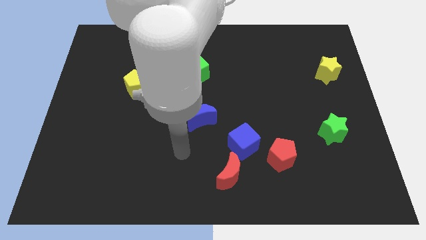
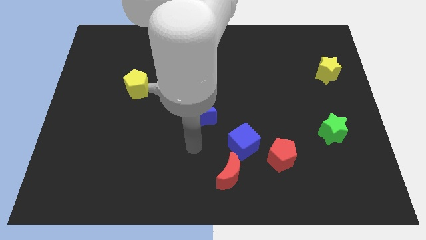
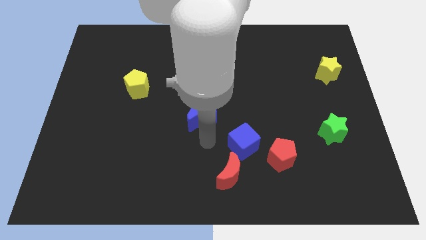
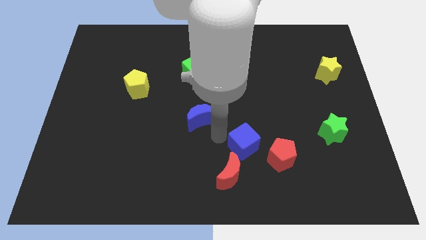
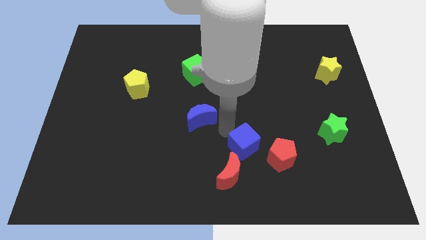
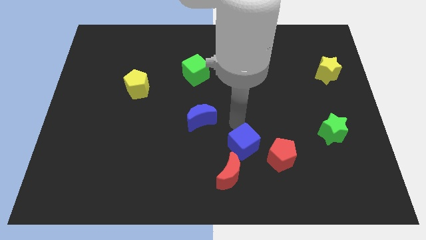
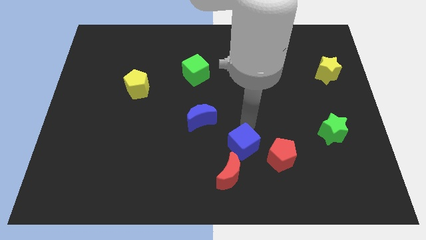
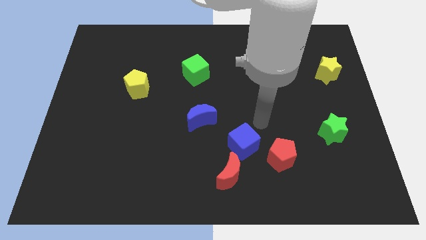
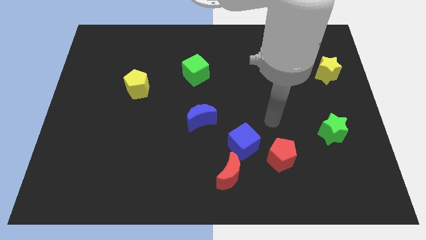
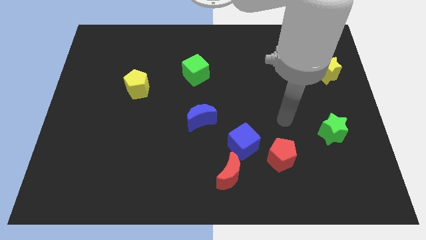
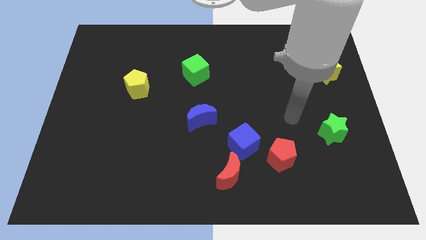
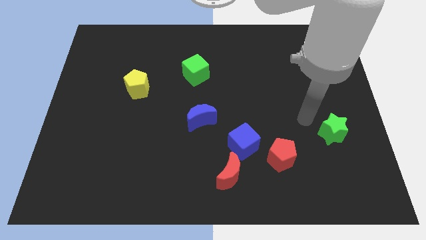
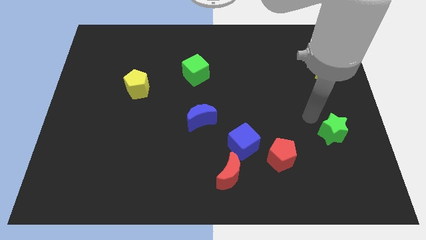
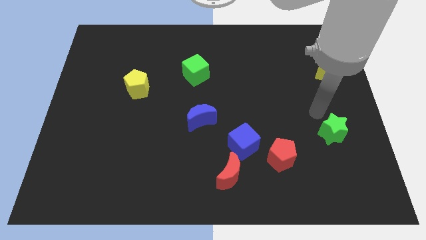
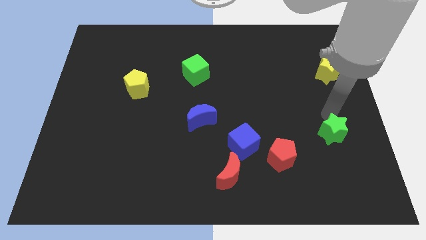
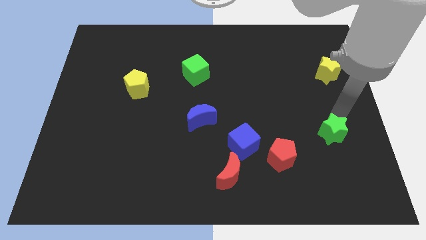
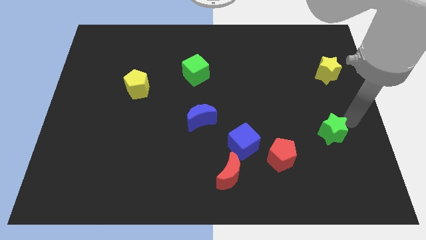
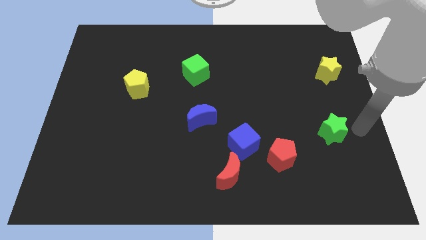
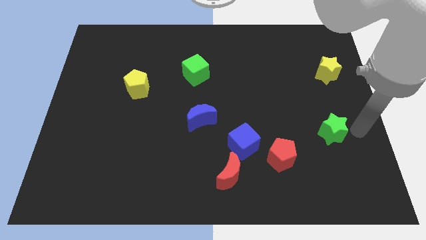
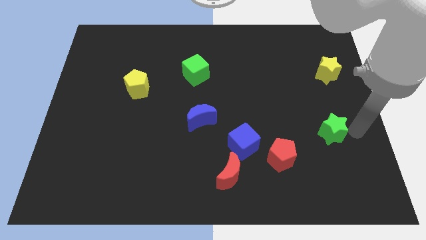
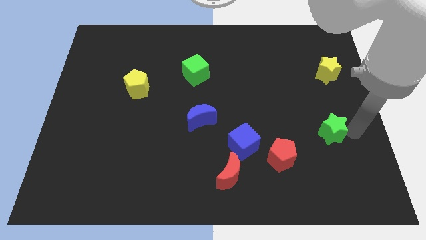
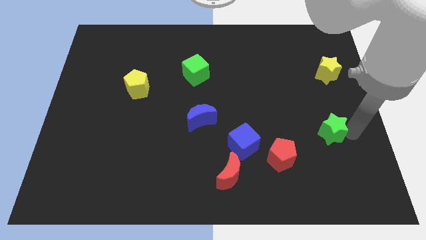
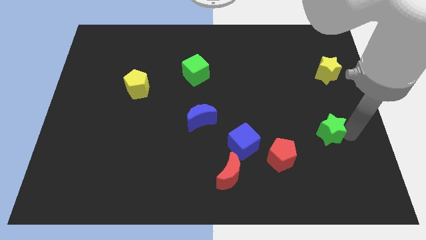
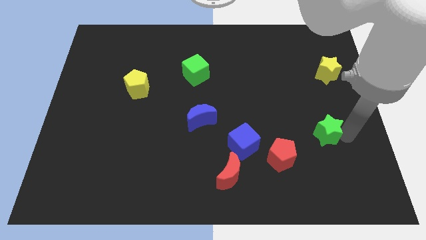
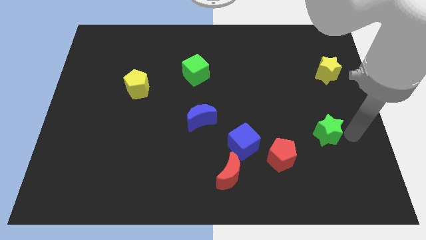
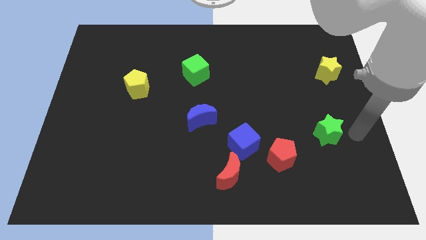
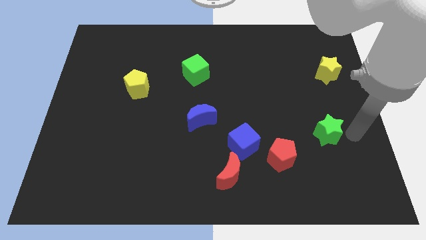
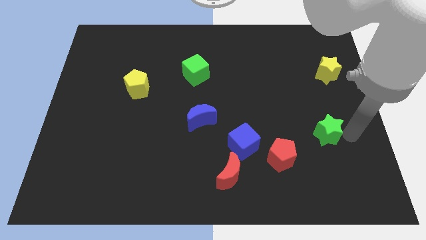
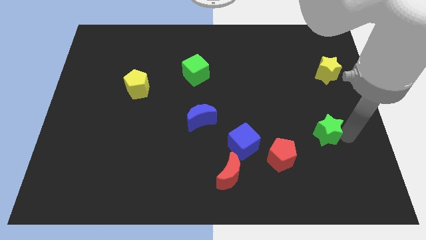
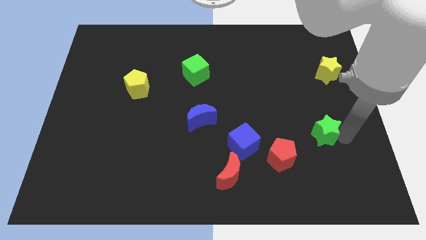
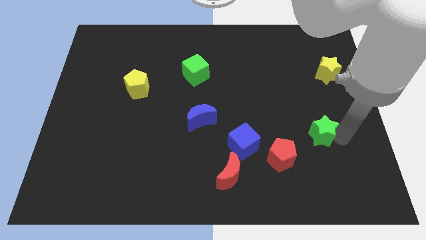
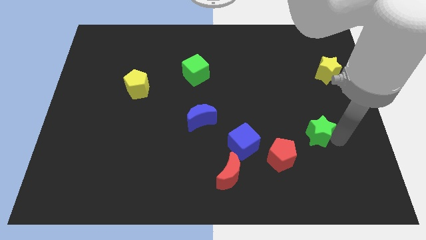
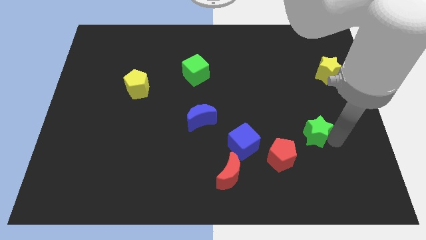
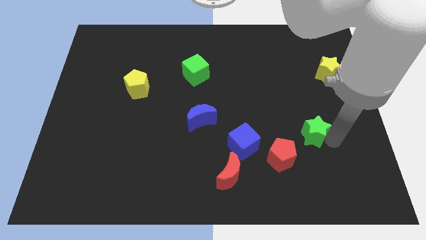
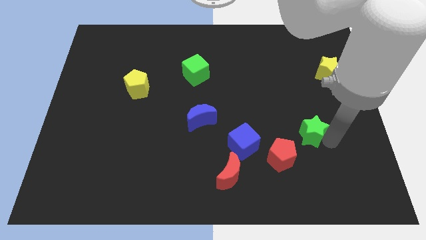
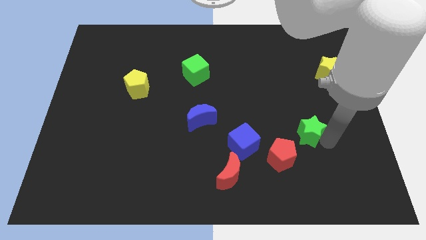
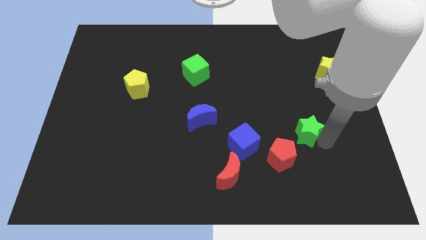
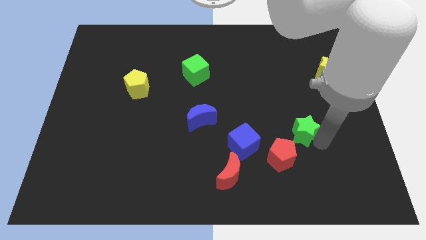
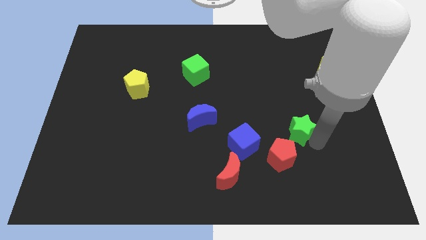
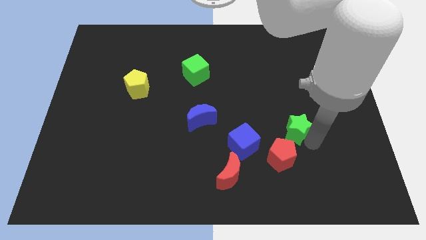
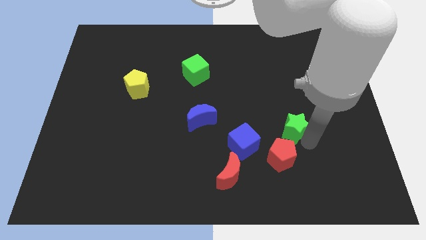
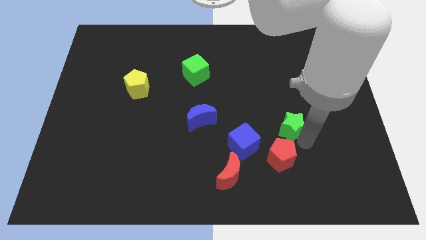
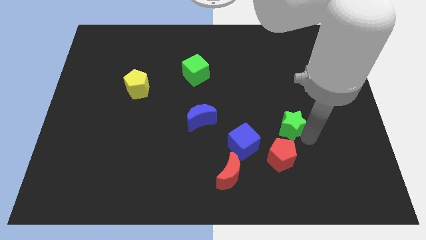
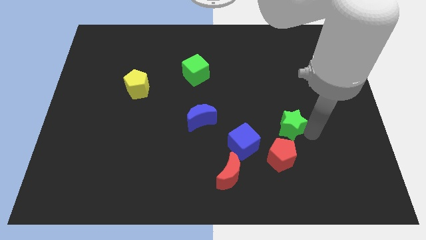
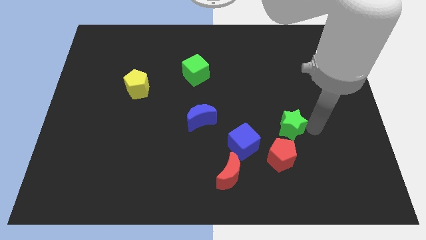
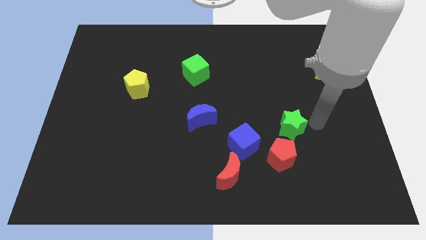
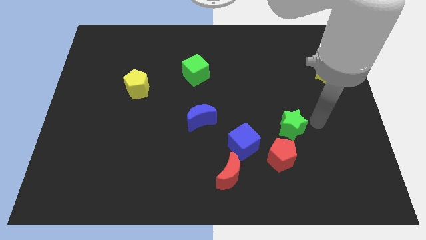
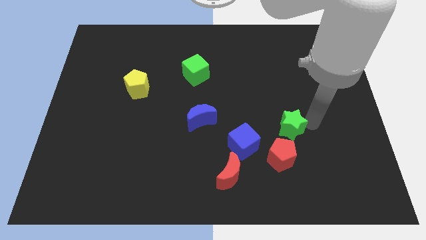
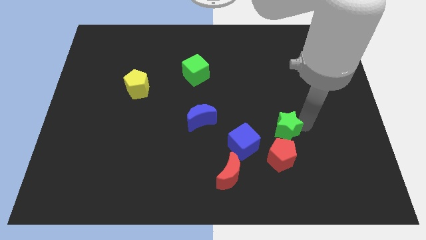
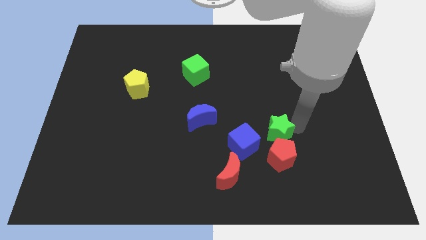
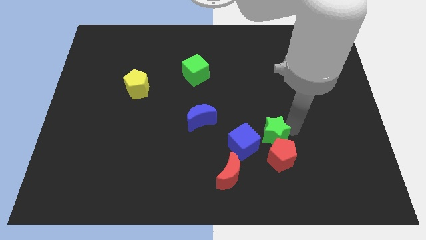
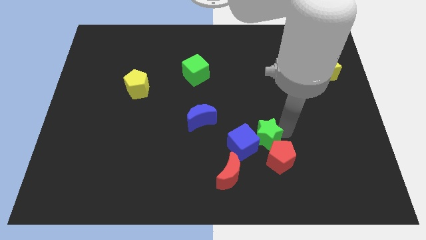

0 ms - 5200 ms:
slide the green star next to the blue cube

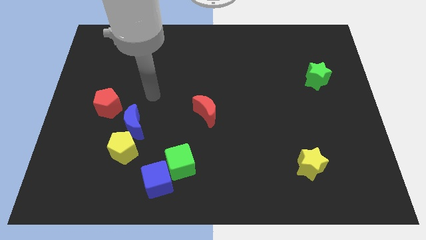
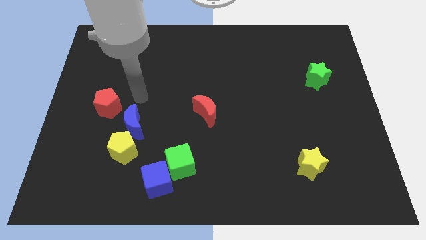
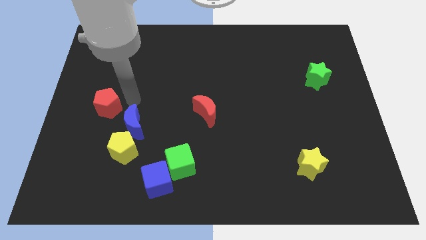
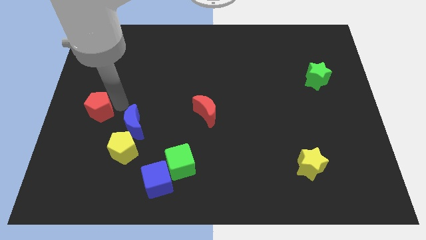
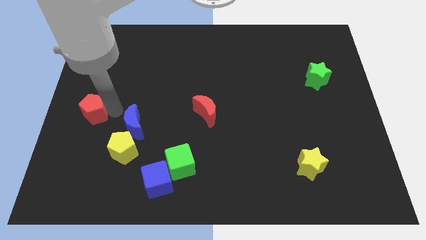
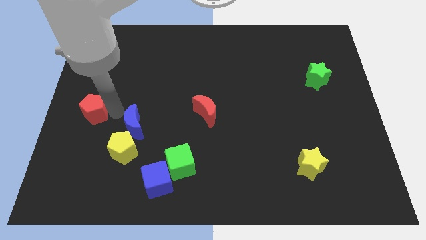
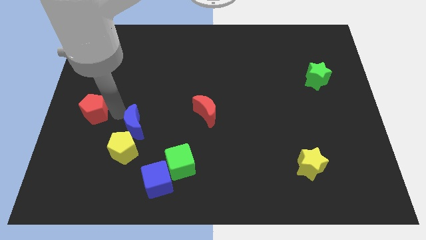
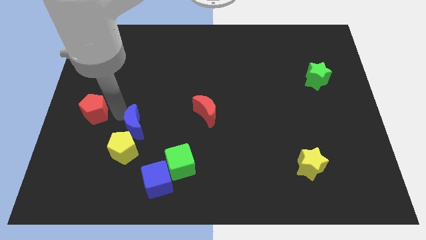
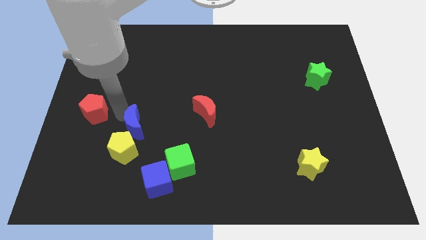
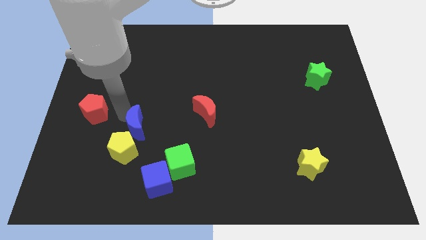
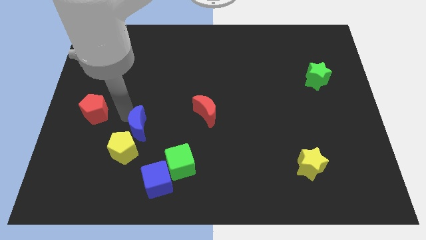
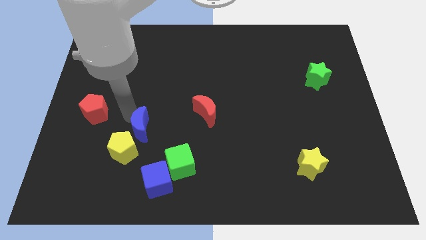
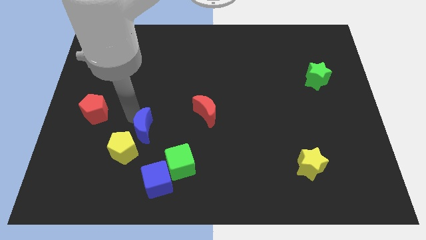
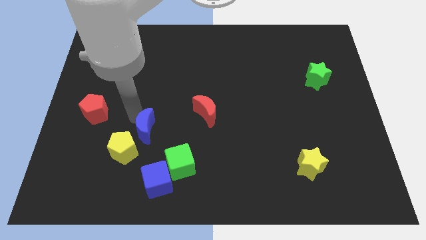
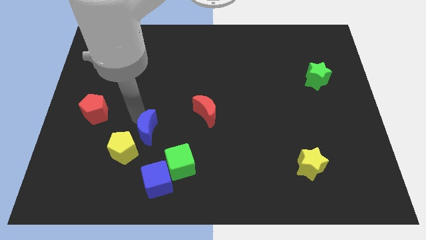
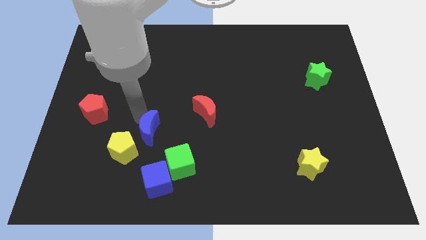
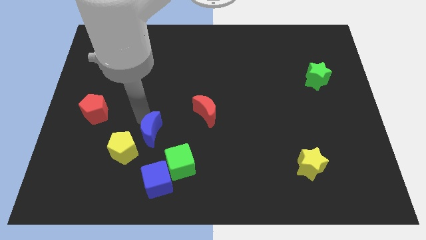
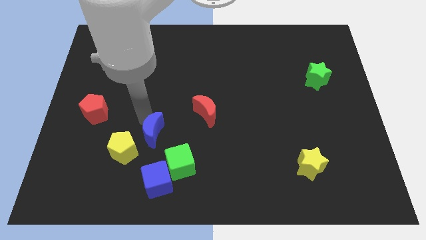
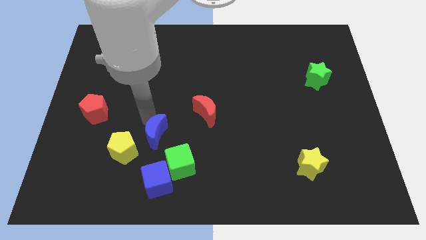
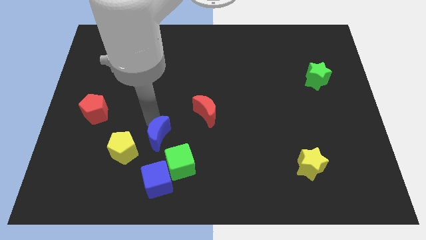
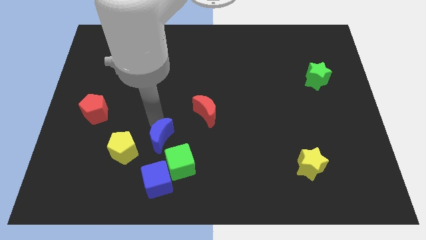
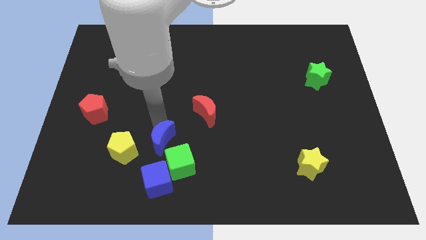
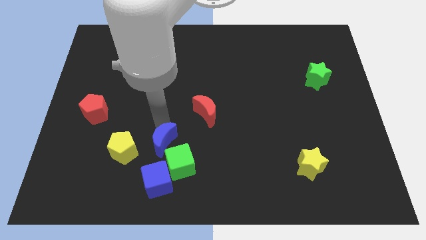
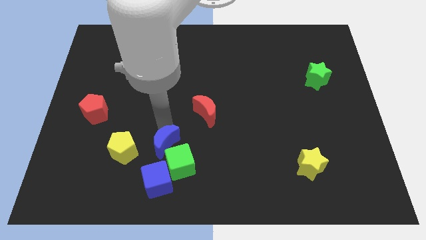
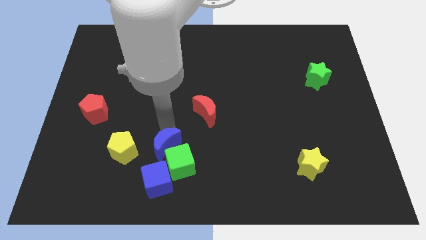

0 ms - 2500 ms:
slide the blue moon towards the green cube

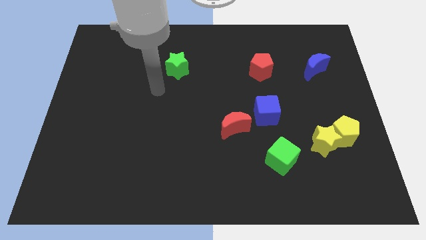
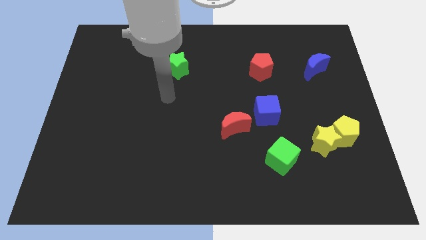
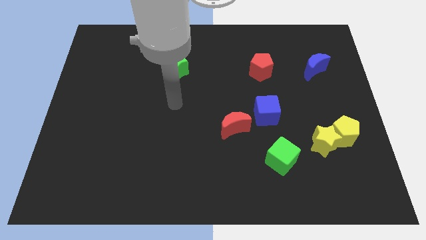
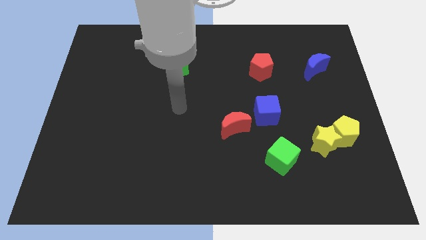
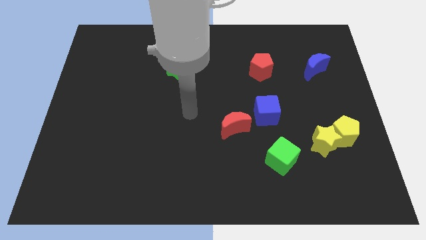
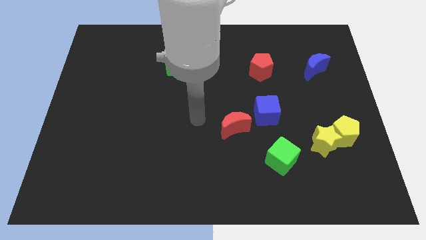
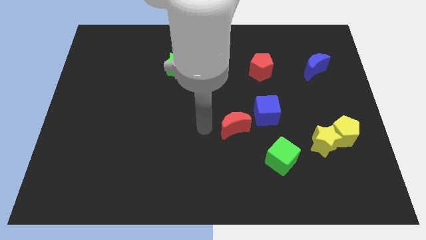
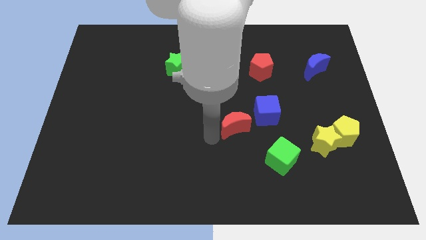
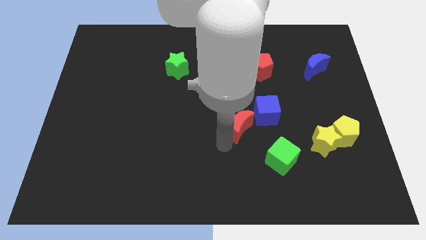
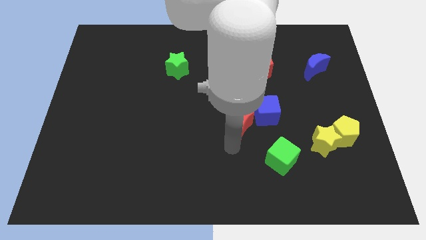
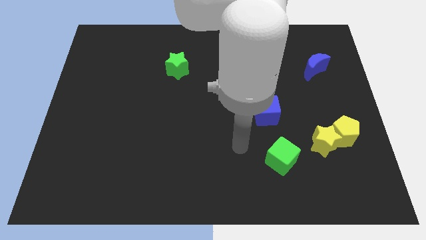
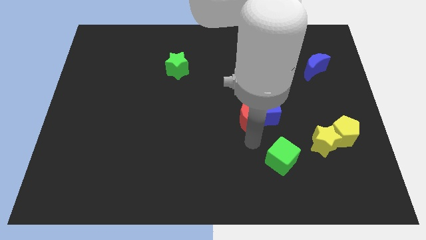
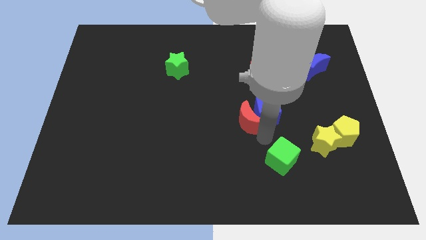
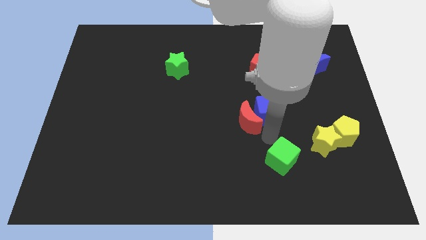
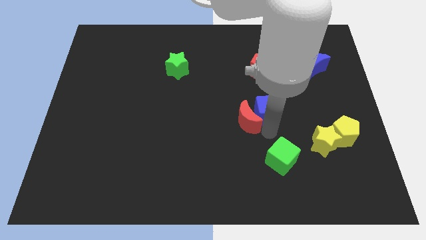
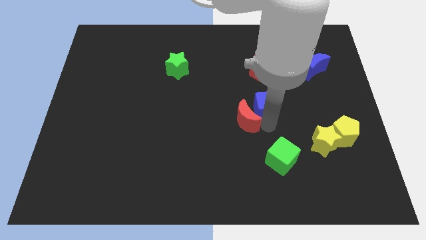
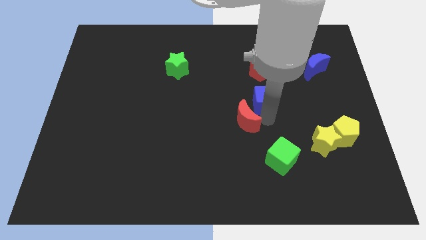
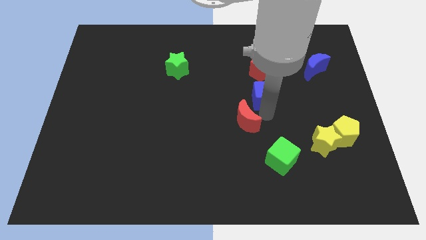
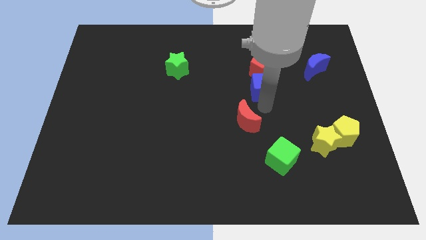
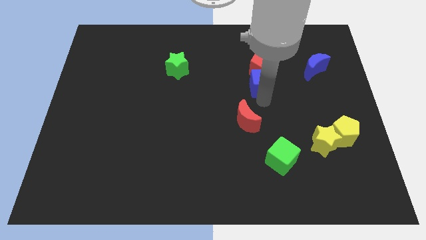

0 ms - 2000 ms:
slide the blue cube to the red pentagon
